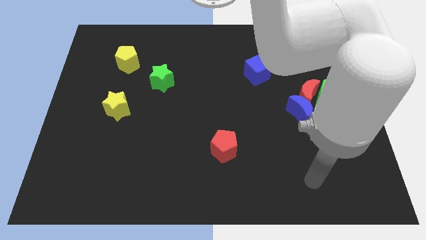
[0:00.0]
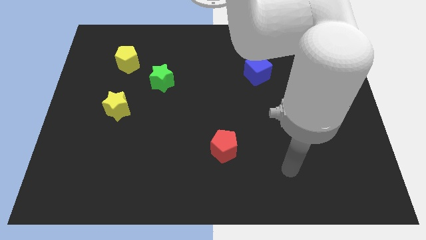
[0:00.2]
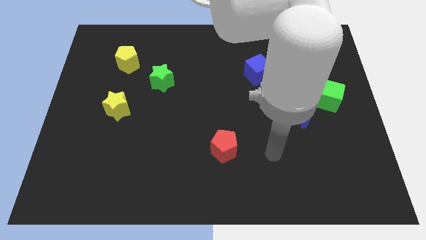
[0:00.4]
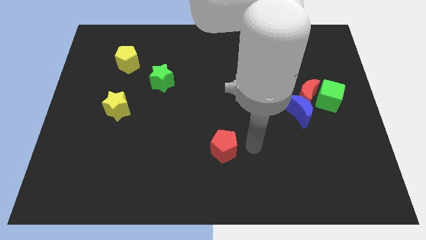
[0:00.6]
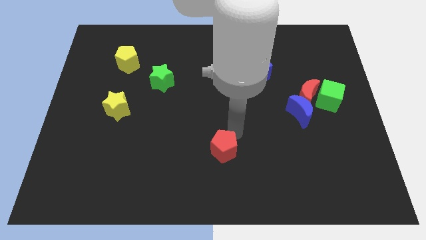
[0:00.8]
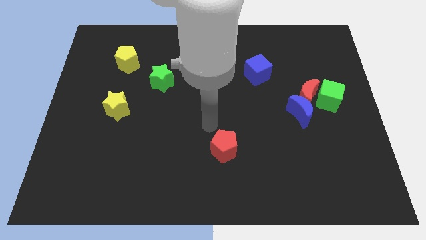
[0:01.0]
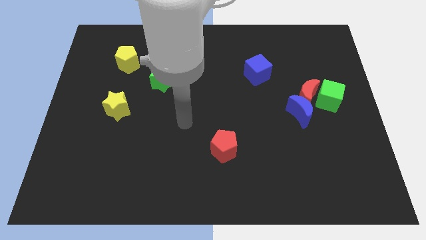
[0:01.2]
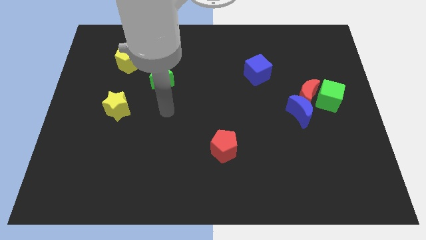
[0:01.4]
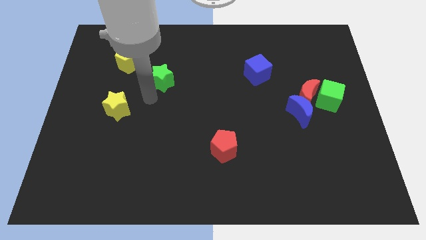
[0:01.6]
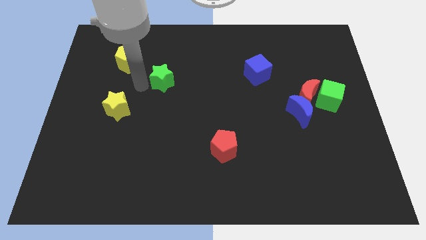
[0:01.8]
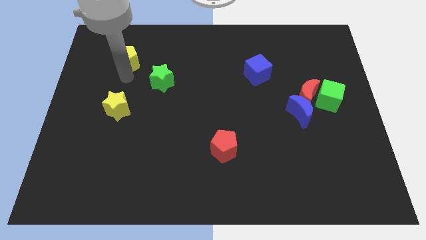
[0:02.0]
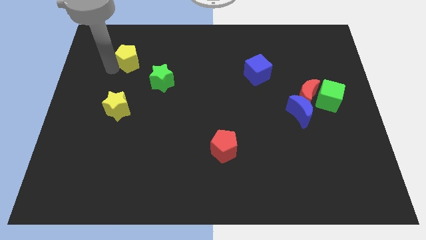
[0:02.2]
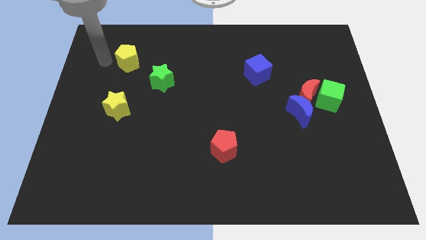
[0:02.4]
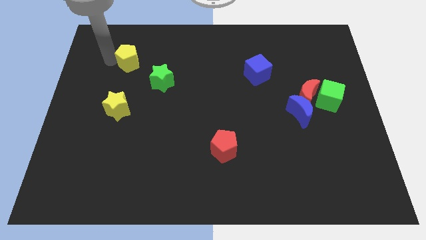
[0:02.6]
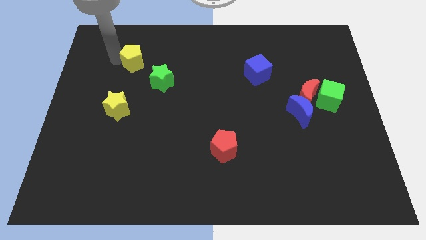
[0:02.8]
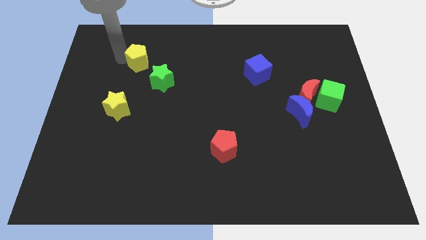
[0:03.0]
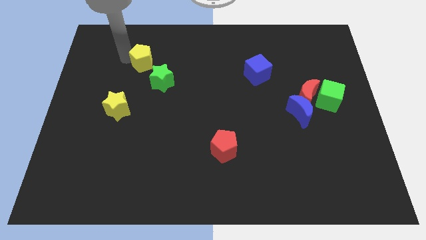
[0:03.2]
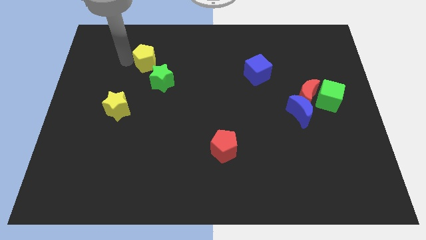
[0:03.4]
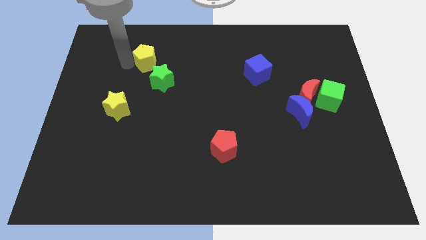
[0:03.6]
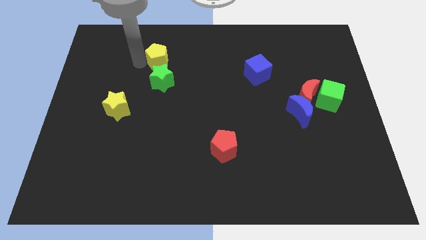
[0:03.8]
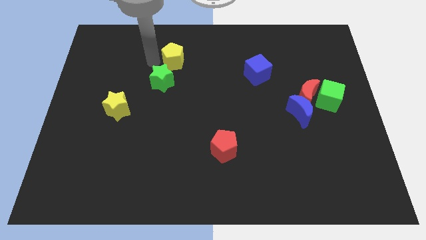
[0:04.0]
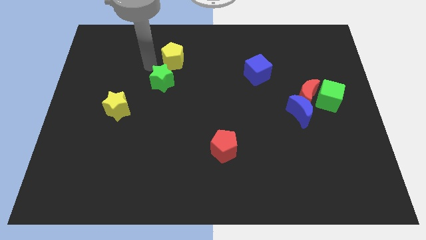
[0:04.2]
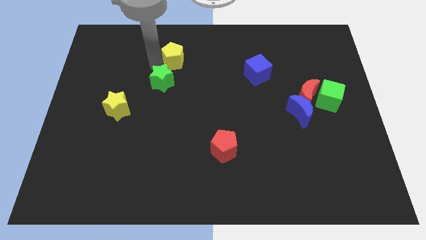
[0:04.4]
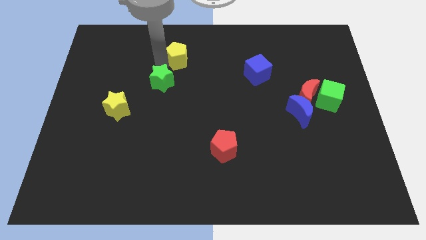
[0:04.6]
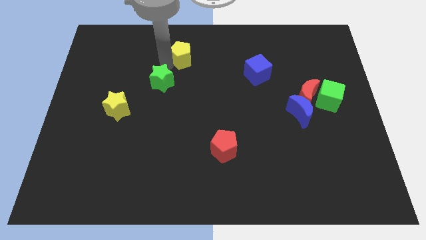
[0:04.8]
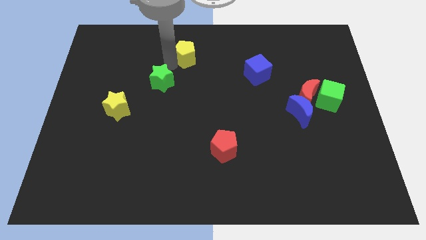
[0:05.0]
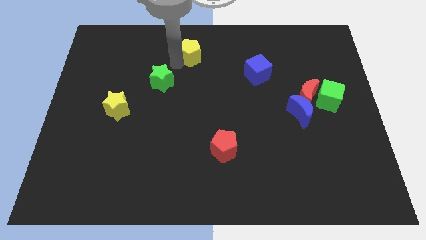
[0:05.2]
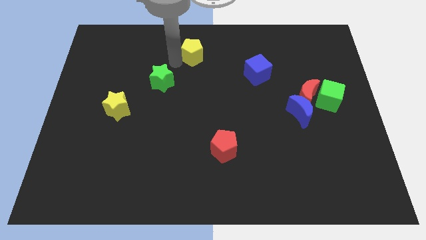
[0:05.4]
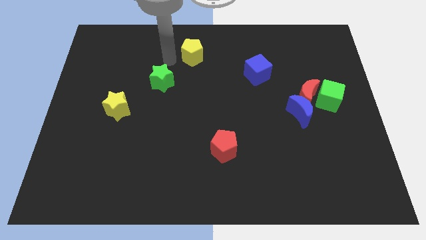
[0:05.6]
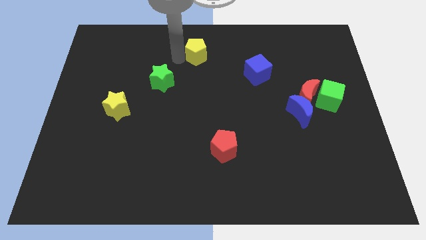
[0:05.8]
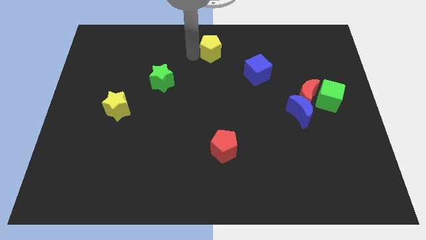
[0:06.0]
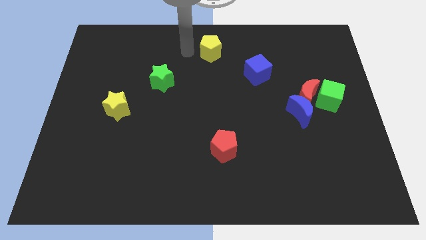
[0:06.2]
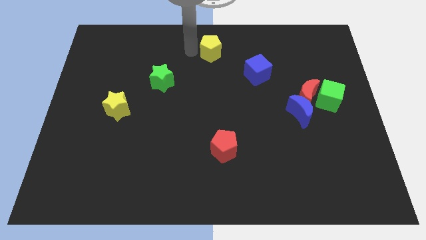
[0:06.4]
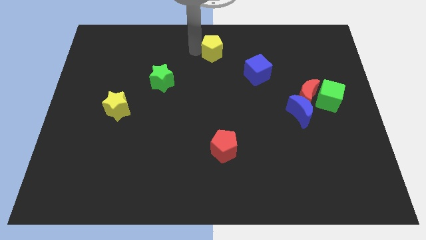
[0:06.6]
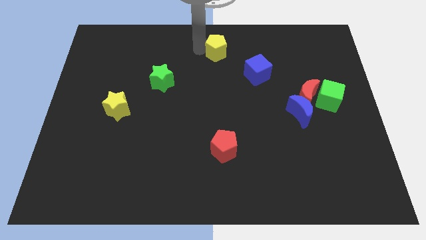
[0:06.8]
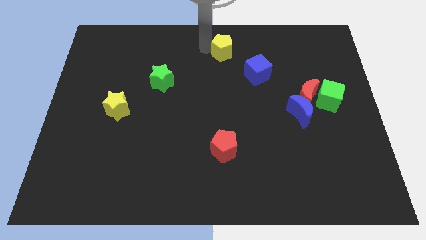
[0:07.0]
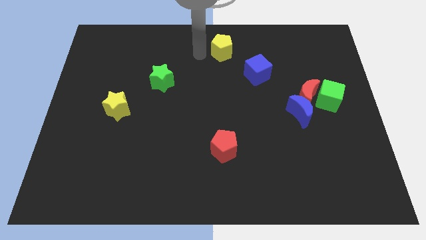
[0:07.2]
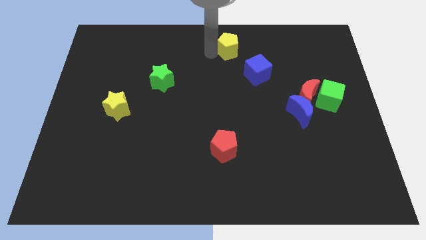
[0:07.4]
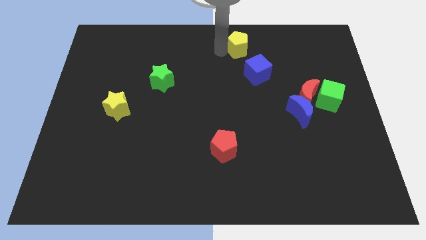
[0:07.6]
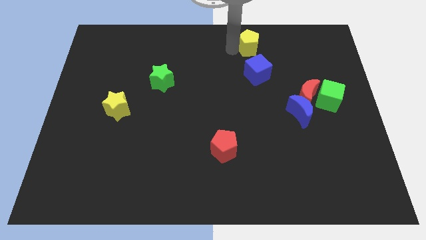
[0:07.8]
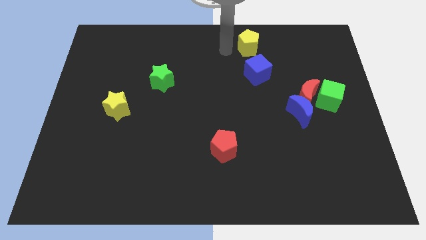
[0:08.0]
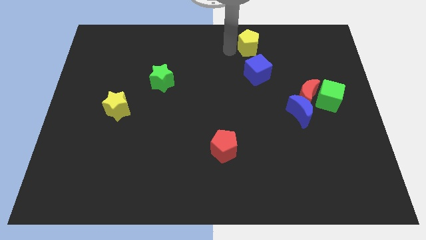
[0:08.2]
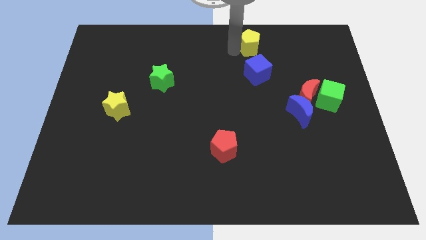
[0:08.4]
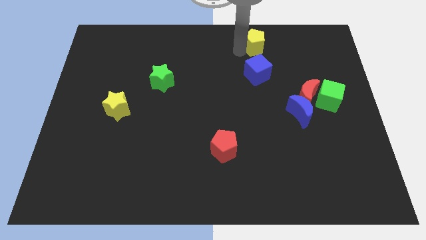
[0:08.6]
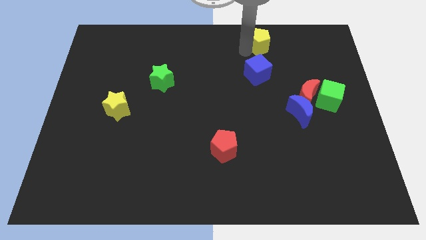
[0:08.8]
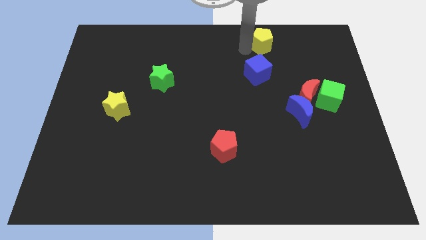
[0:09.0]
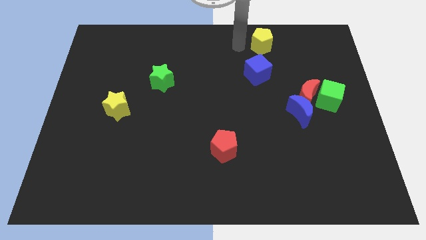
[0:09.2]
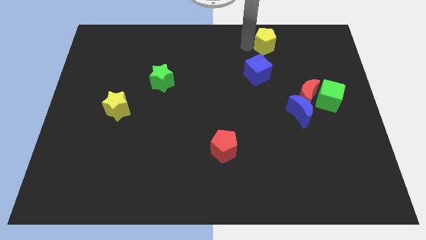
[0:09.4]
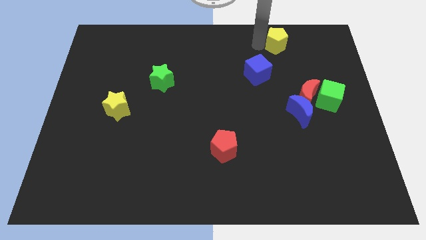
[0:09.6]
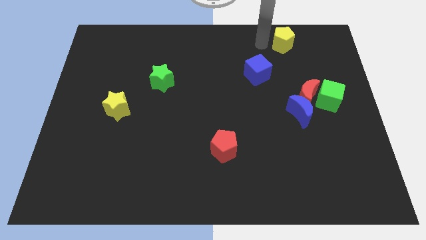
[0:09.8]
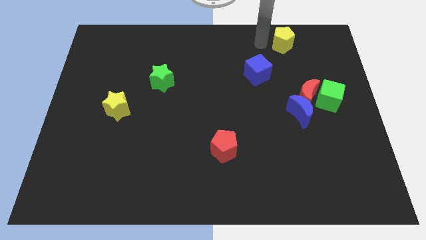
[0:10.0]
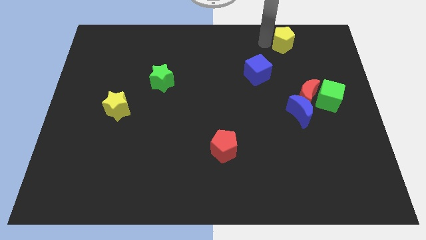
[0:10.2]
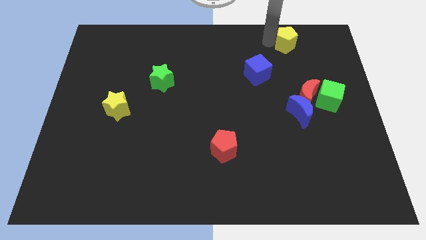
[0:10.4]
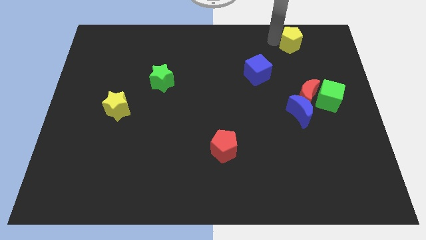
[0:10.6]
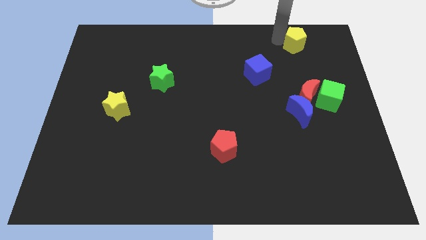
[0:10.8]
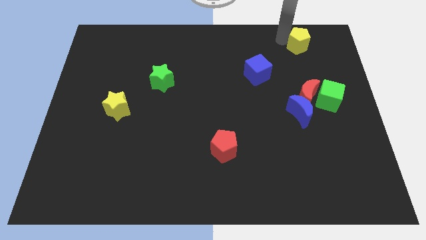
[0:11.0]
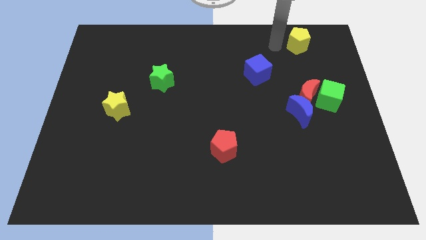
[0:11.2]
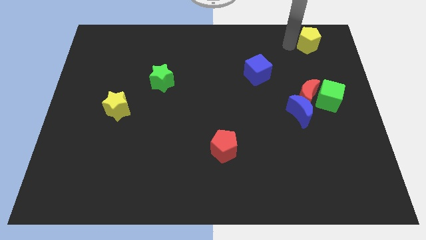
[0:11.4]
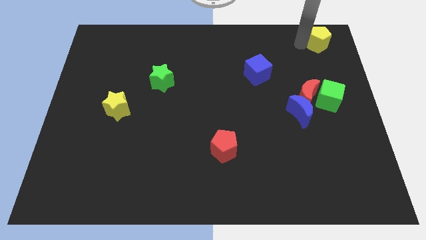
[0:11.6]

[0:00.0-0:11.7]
put the yellow pentagon to the top right corner
